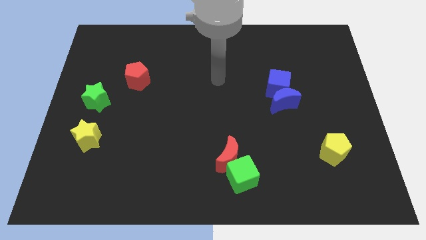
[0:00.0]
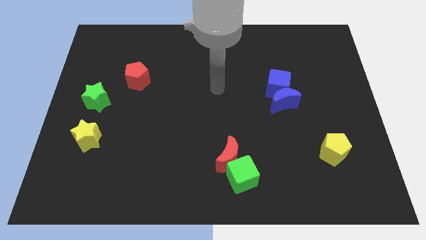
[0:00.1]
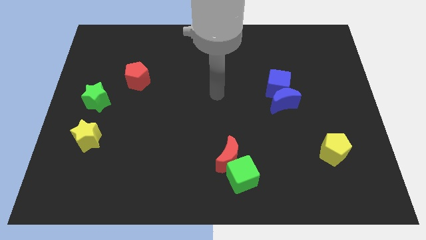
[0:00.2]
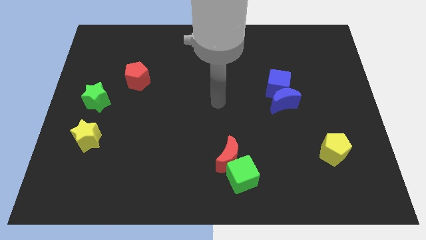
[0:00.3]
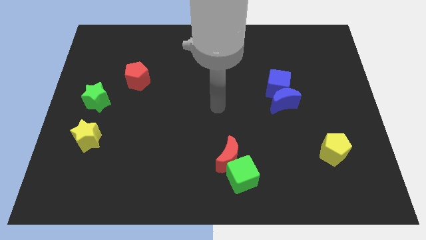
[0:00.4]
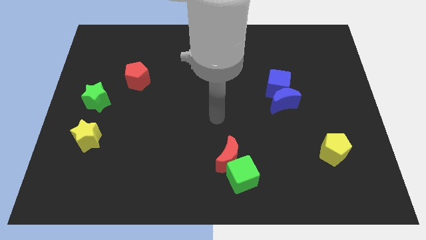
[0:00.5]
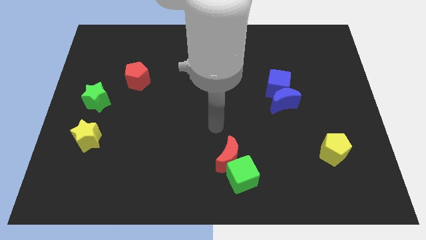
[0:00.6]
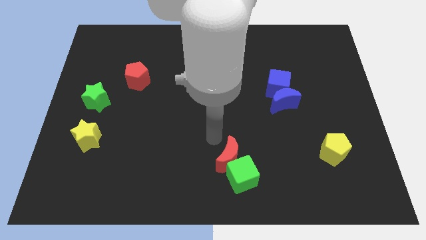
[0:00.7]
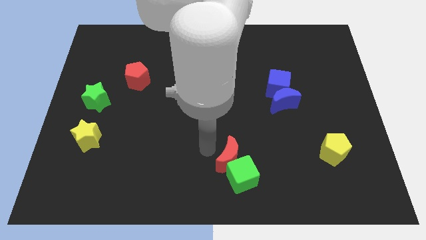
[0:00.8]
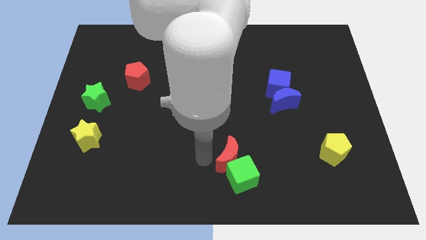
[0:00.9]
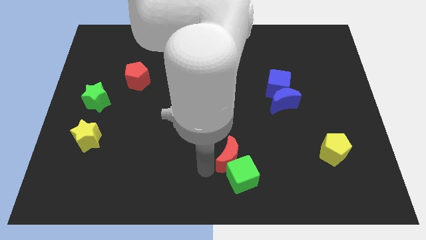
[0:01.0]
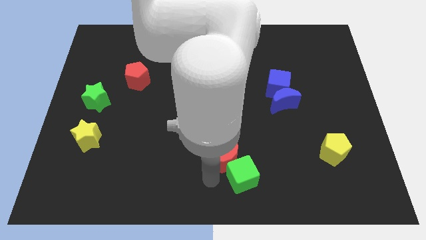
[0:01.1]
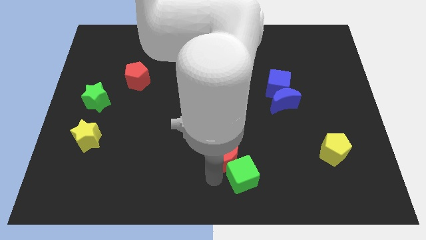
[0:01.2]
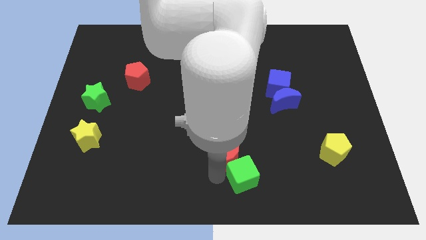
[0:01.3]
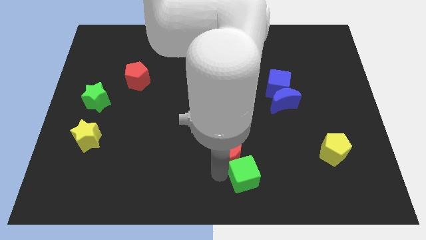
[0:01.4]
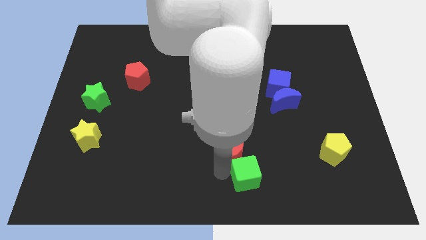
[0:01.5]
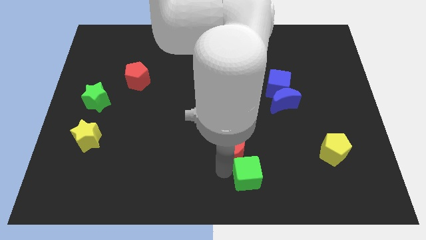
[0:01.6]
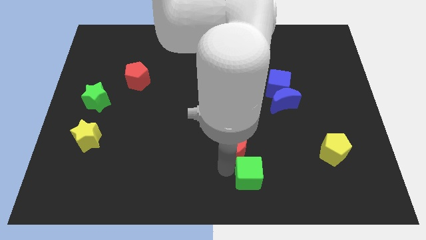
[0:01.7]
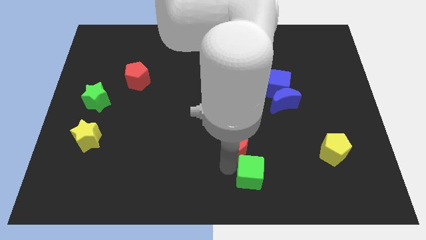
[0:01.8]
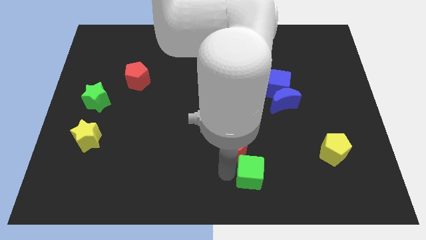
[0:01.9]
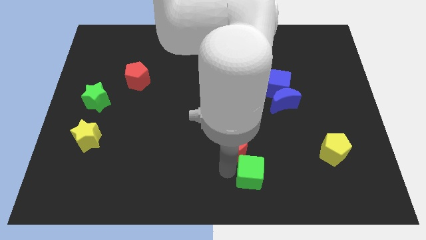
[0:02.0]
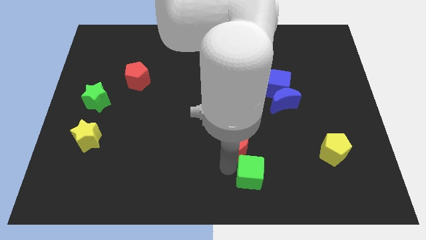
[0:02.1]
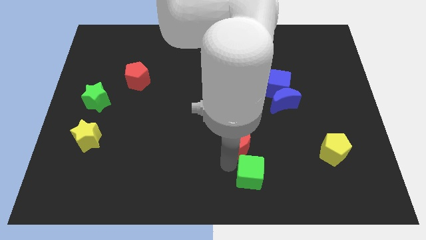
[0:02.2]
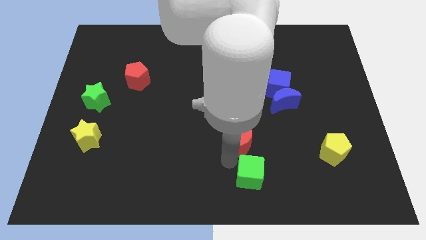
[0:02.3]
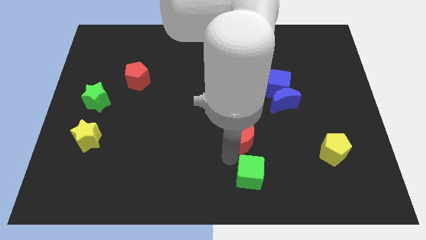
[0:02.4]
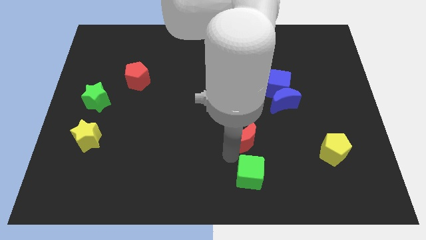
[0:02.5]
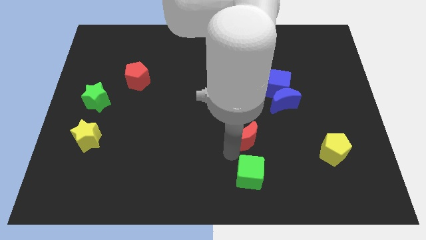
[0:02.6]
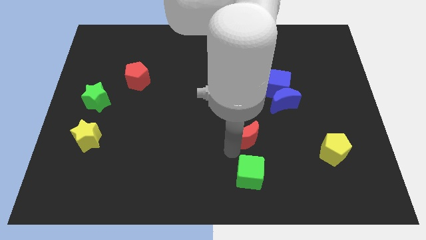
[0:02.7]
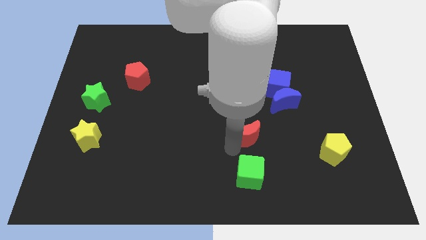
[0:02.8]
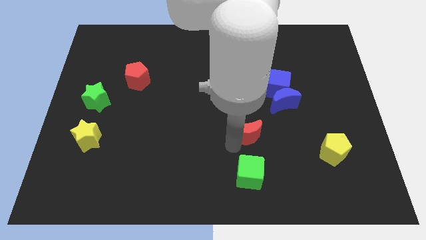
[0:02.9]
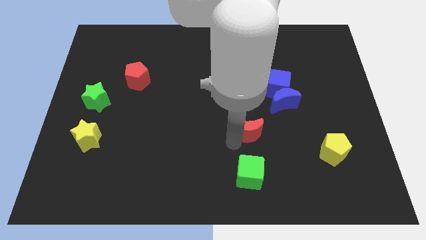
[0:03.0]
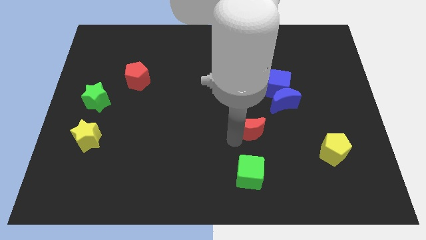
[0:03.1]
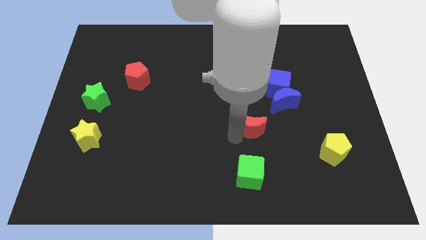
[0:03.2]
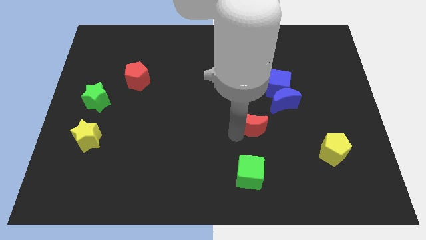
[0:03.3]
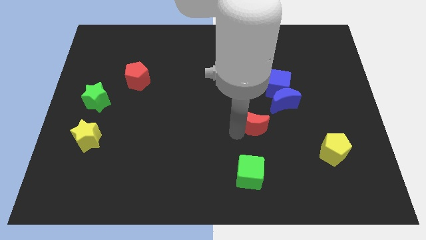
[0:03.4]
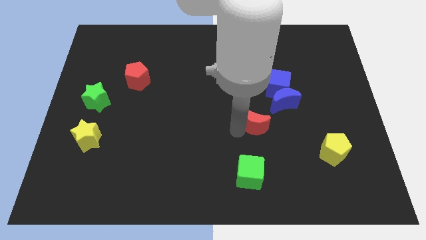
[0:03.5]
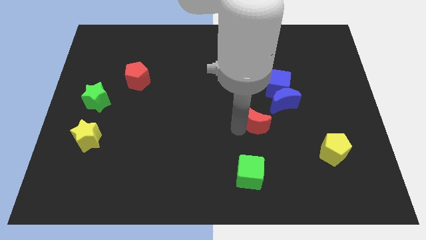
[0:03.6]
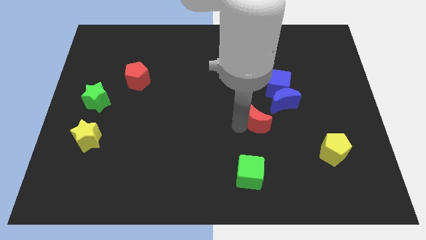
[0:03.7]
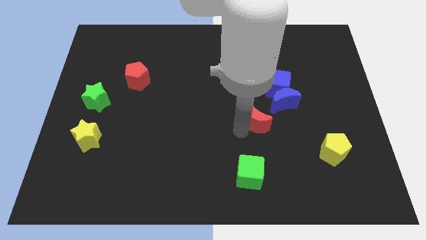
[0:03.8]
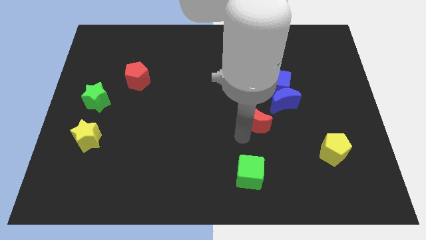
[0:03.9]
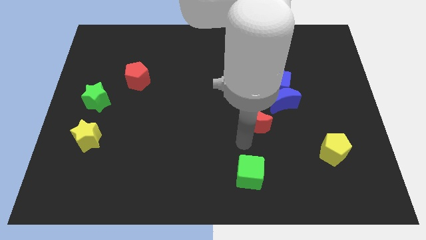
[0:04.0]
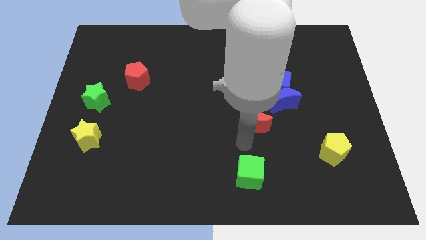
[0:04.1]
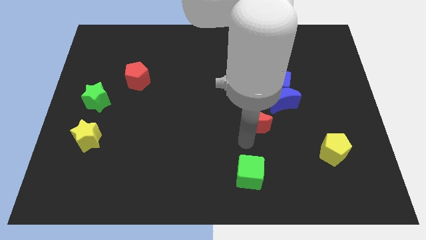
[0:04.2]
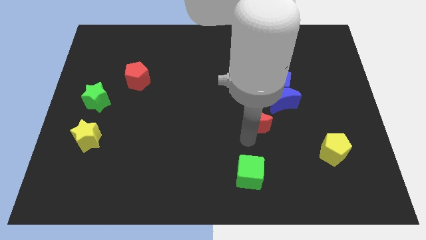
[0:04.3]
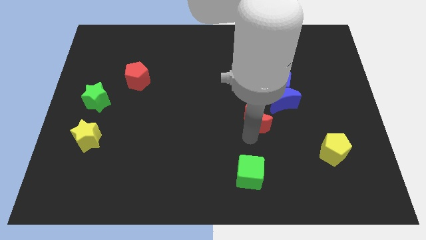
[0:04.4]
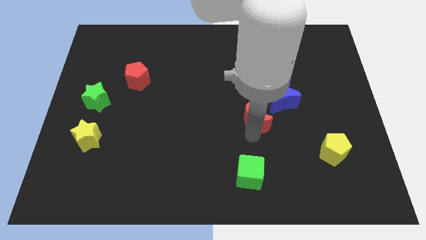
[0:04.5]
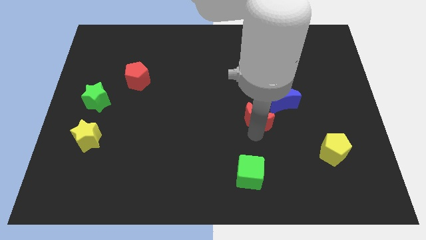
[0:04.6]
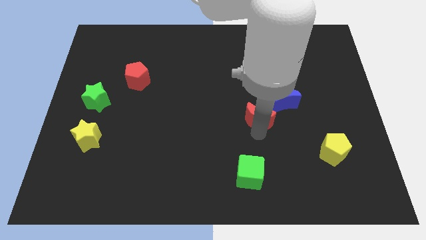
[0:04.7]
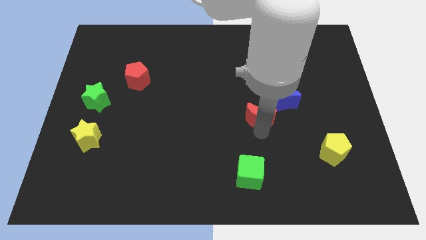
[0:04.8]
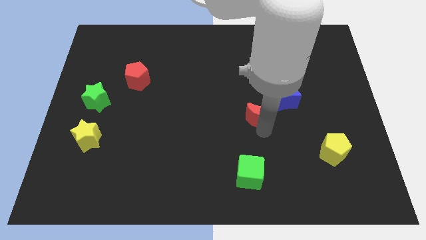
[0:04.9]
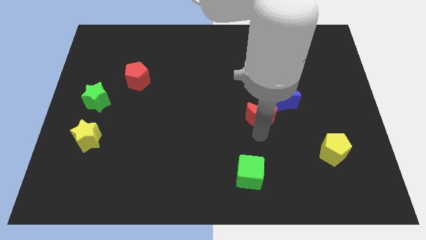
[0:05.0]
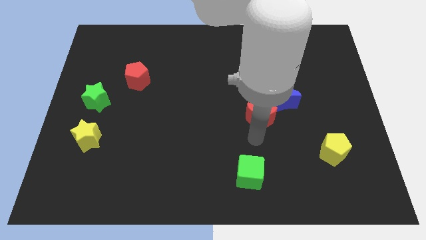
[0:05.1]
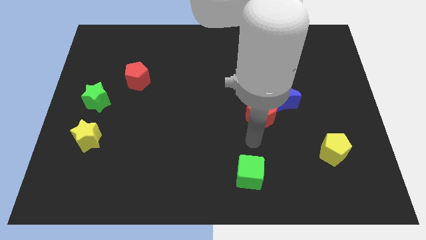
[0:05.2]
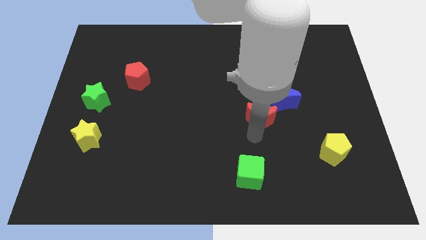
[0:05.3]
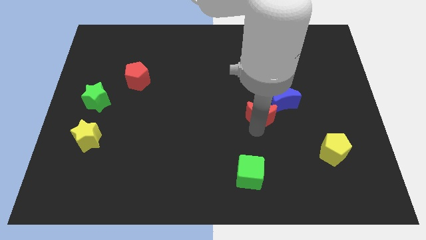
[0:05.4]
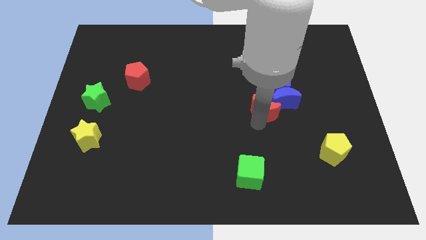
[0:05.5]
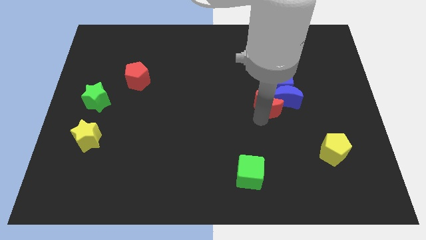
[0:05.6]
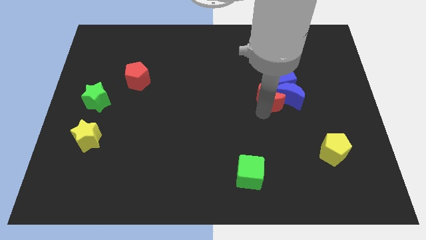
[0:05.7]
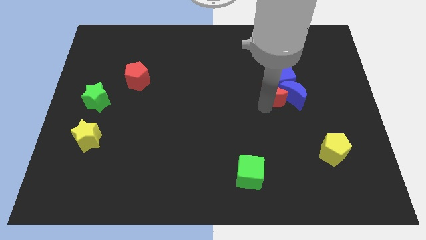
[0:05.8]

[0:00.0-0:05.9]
put the red moon close to the blue cube

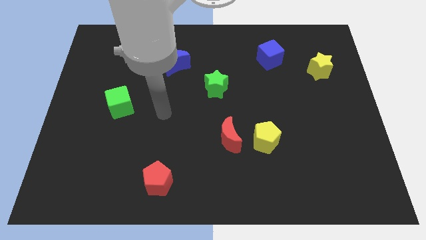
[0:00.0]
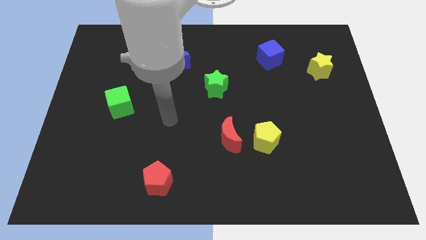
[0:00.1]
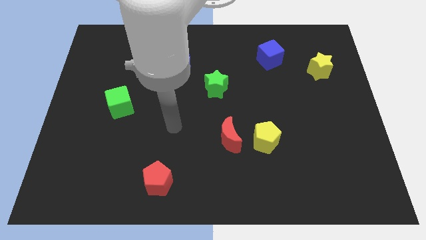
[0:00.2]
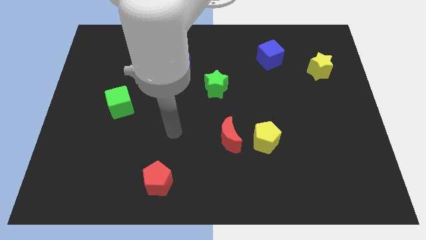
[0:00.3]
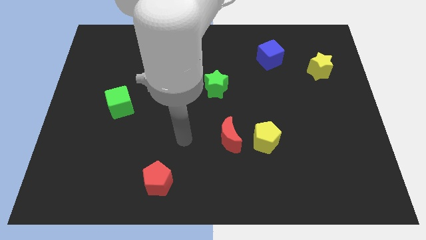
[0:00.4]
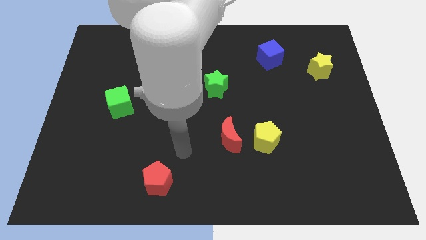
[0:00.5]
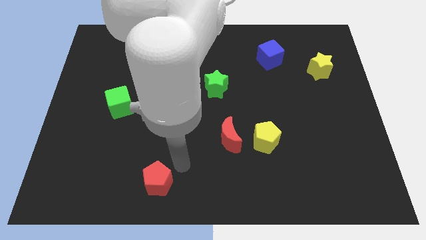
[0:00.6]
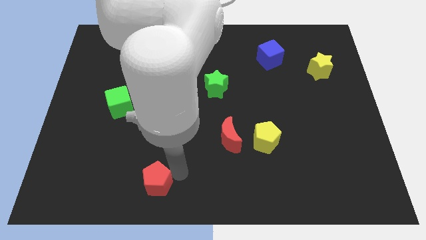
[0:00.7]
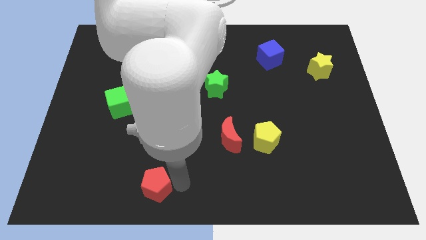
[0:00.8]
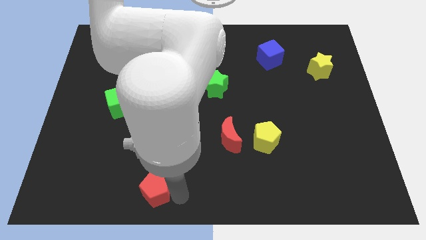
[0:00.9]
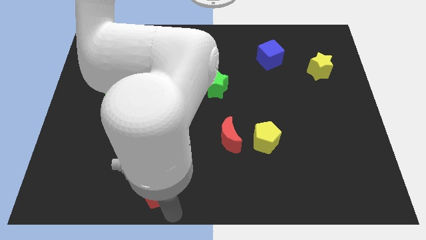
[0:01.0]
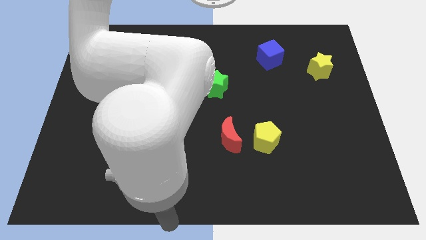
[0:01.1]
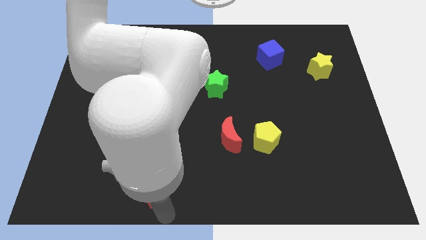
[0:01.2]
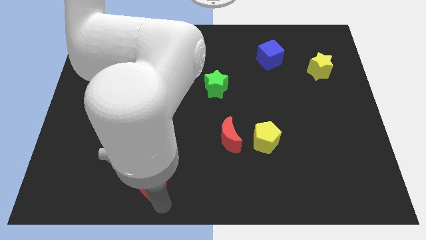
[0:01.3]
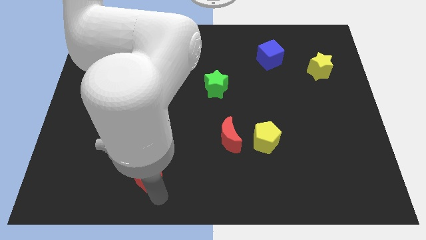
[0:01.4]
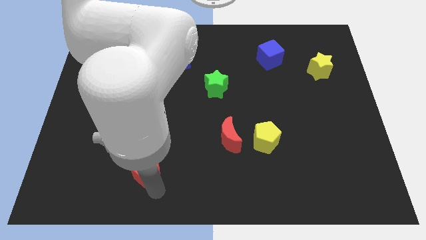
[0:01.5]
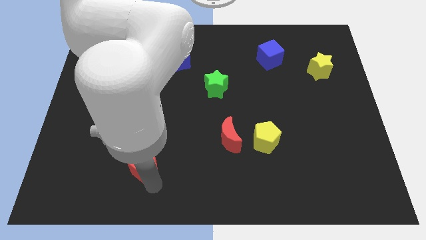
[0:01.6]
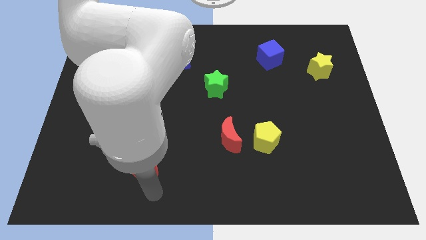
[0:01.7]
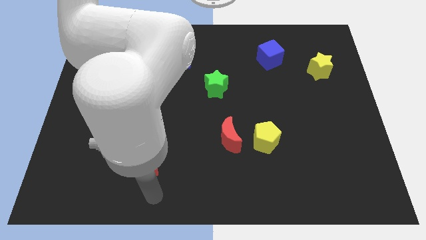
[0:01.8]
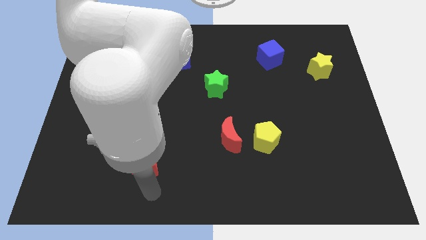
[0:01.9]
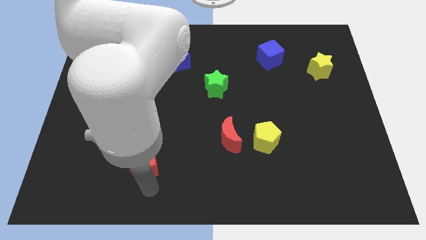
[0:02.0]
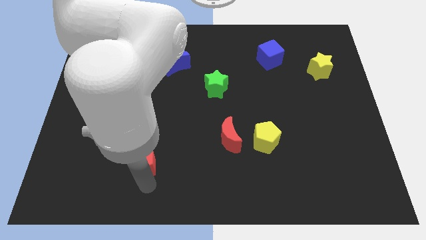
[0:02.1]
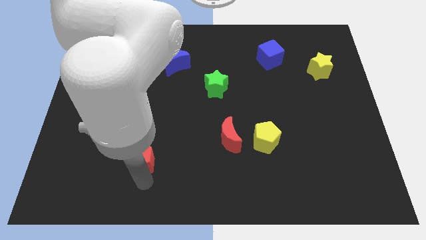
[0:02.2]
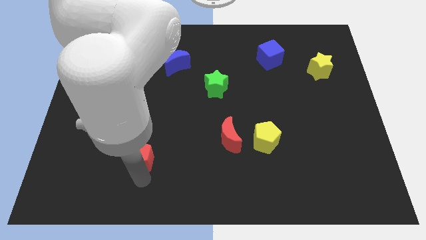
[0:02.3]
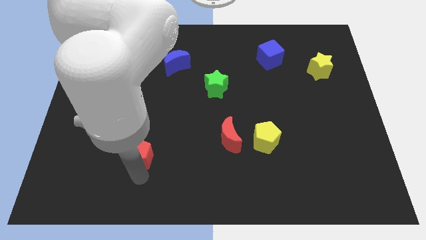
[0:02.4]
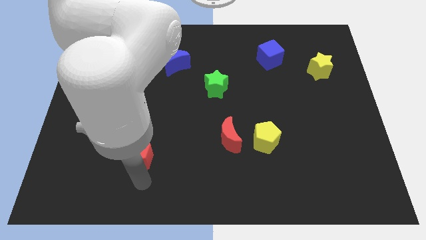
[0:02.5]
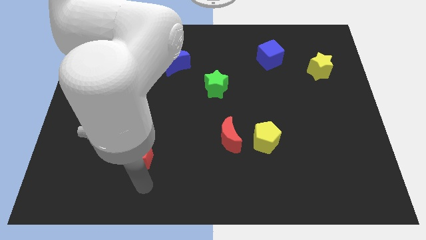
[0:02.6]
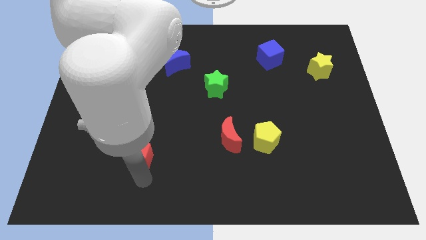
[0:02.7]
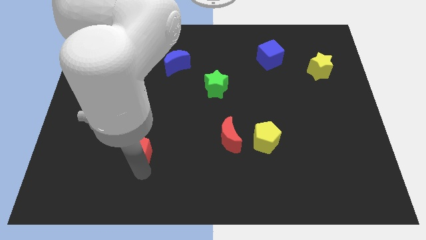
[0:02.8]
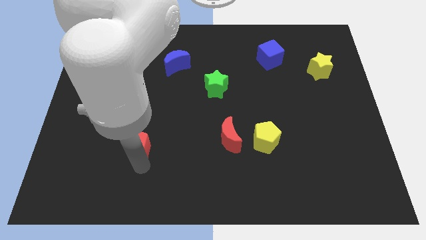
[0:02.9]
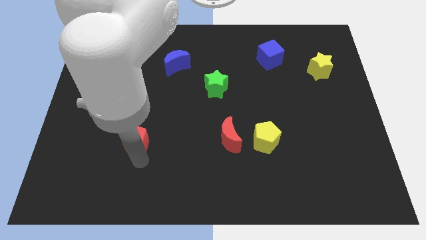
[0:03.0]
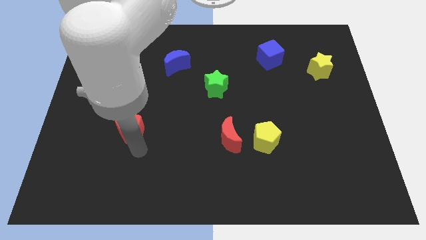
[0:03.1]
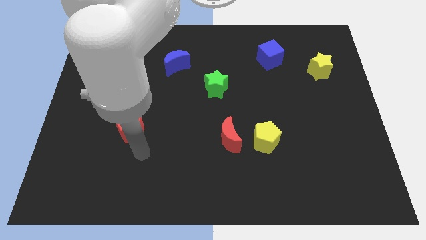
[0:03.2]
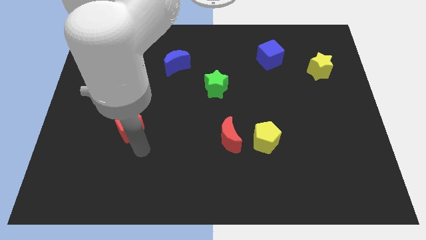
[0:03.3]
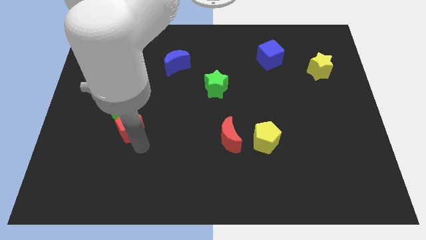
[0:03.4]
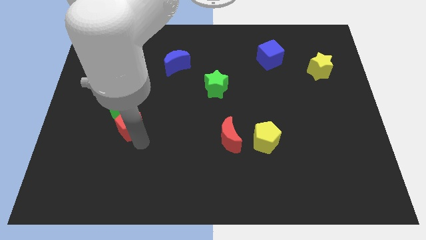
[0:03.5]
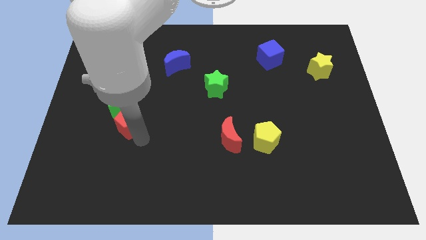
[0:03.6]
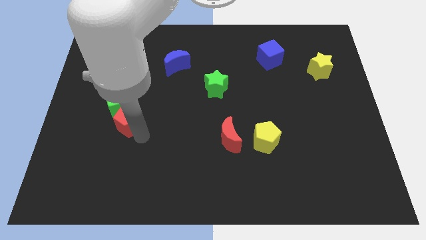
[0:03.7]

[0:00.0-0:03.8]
push the red pentagon to the green cube
